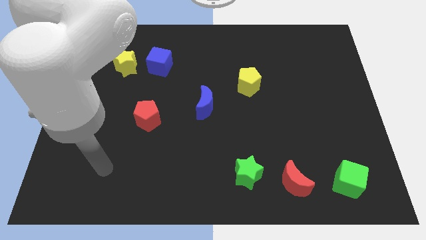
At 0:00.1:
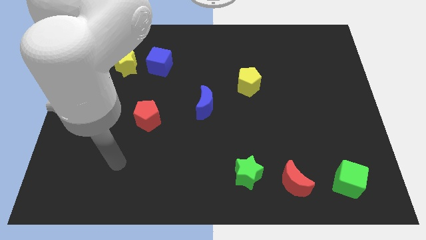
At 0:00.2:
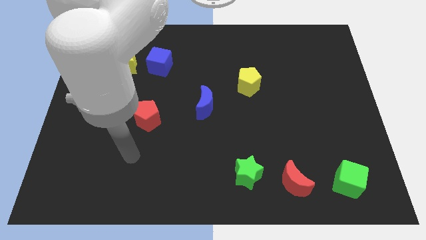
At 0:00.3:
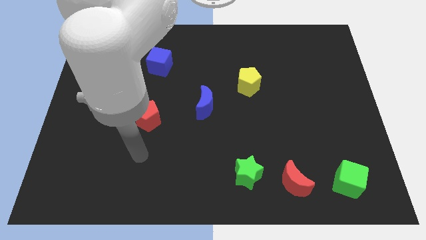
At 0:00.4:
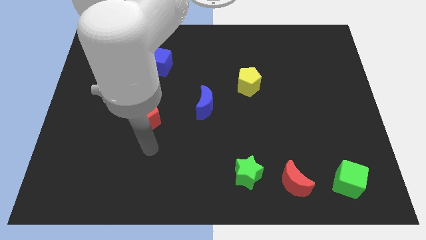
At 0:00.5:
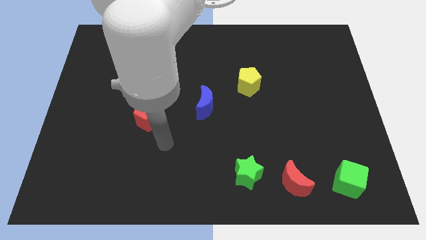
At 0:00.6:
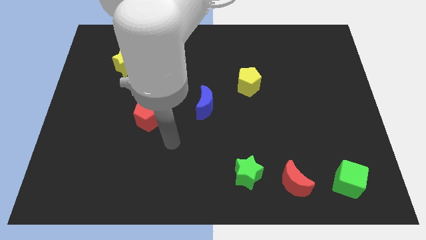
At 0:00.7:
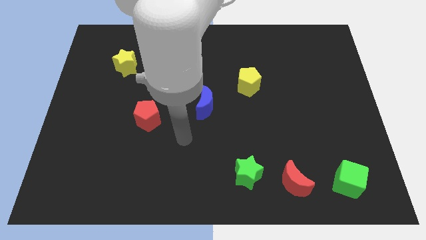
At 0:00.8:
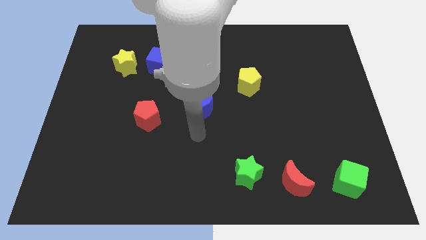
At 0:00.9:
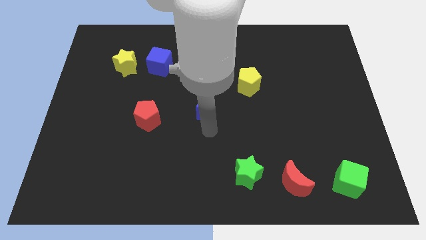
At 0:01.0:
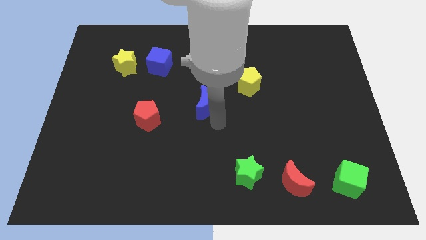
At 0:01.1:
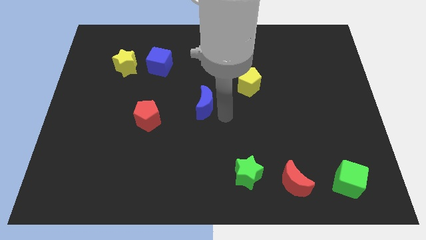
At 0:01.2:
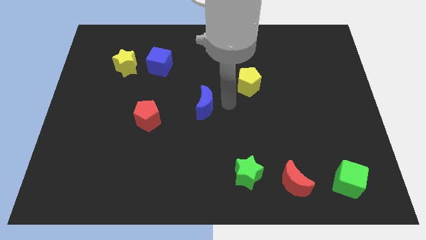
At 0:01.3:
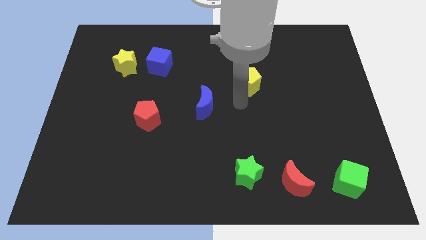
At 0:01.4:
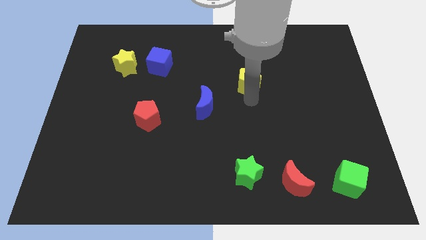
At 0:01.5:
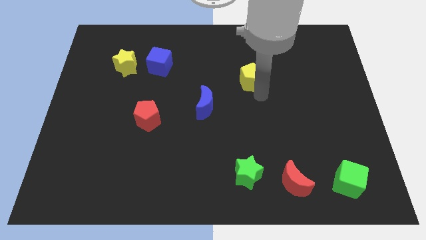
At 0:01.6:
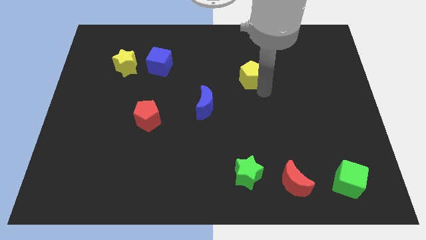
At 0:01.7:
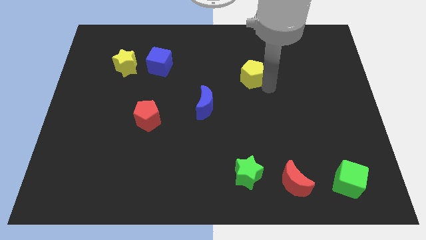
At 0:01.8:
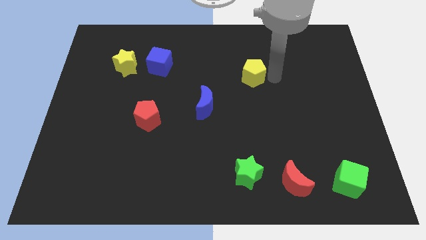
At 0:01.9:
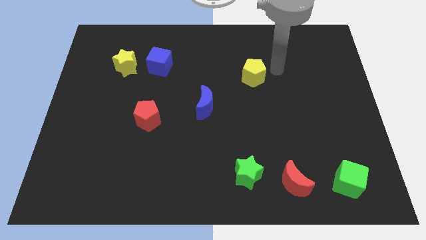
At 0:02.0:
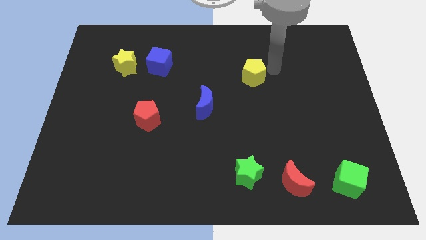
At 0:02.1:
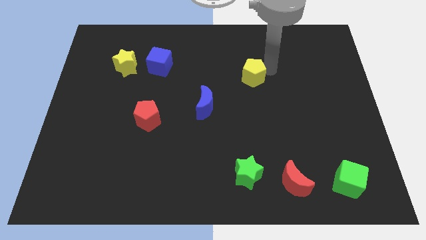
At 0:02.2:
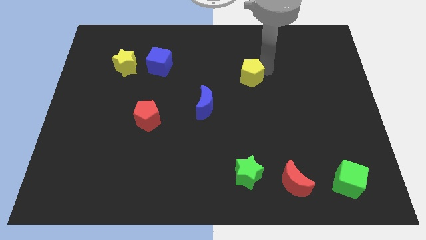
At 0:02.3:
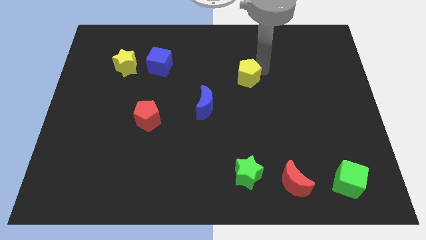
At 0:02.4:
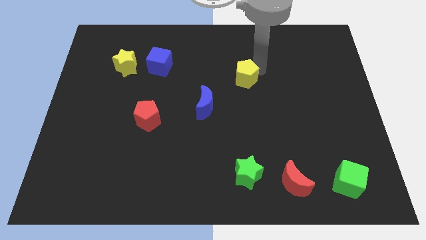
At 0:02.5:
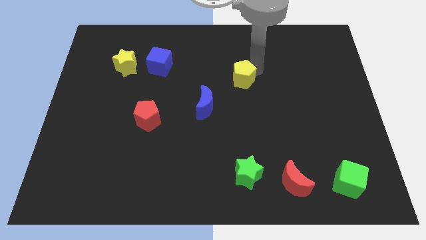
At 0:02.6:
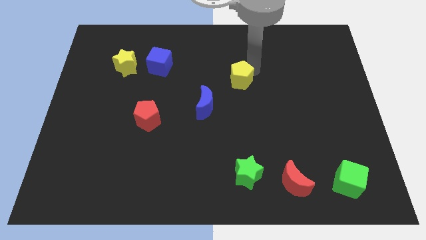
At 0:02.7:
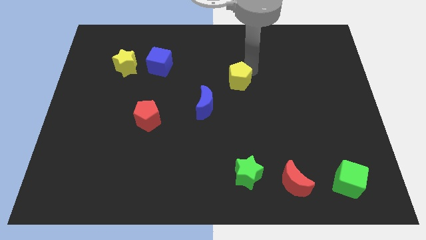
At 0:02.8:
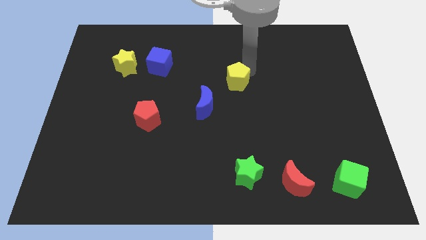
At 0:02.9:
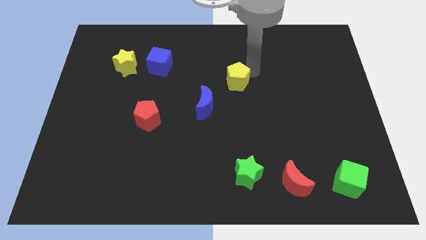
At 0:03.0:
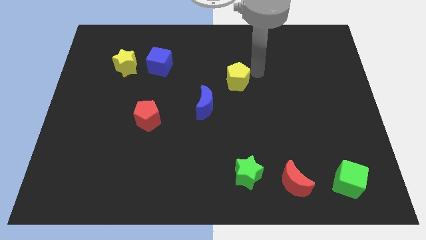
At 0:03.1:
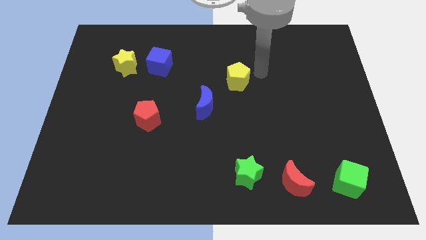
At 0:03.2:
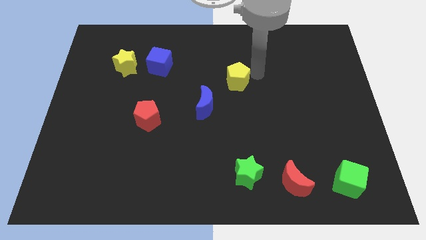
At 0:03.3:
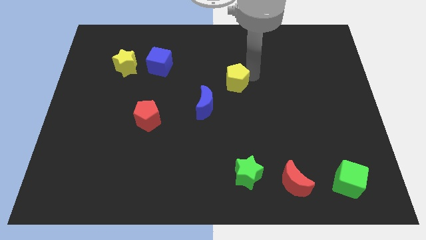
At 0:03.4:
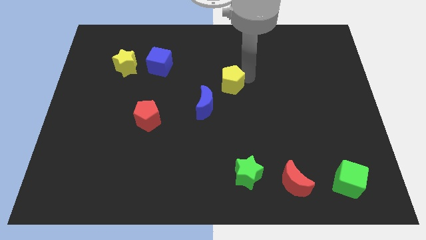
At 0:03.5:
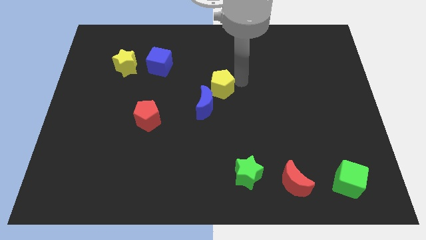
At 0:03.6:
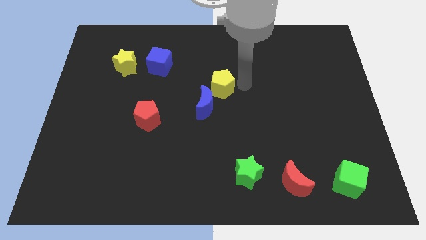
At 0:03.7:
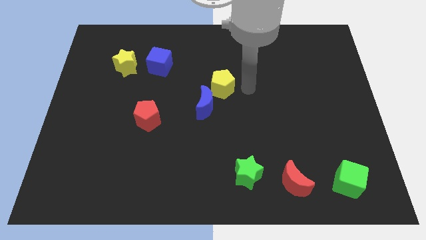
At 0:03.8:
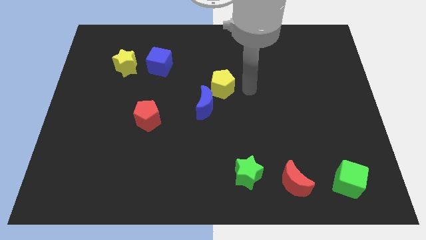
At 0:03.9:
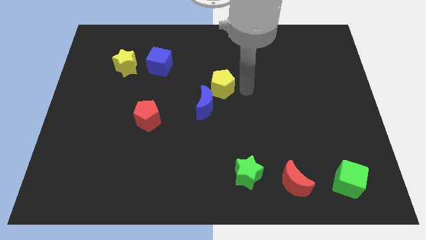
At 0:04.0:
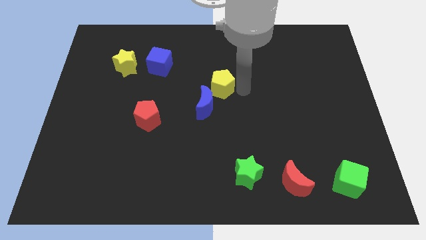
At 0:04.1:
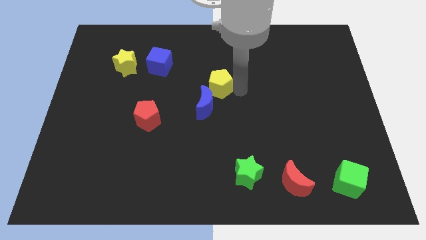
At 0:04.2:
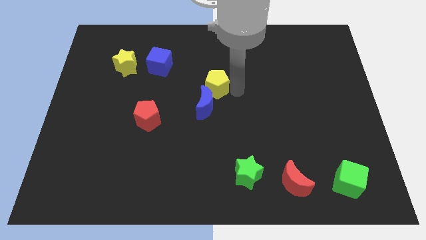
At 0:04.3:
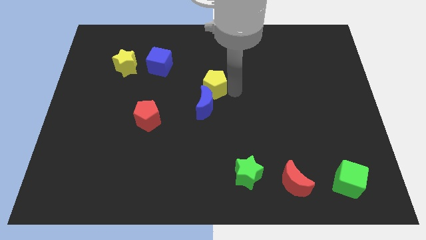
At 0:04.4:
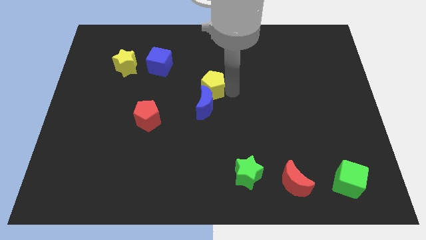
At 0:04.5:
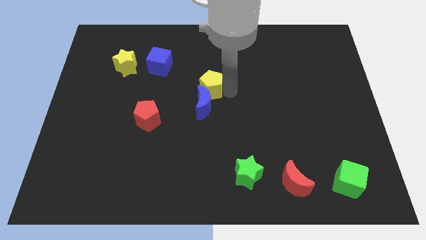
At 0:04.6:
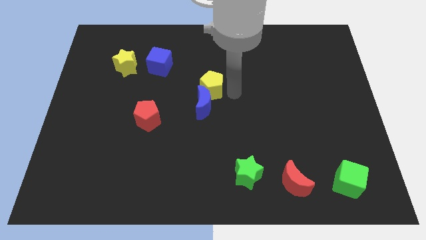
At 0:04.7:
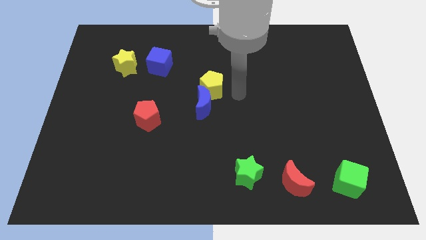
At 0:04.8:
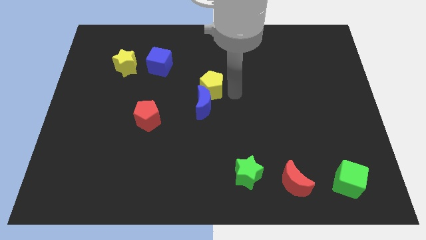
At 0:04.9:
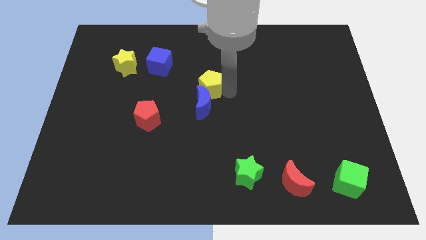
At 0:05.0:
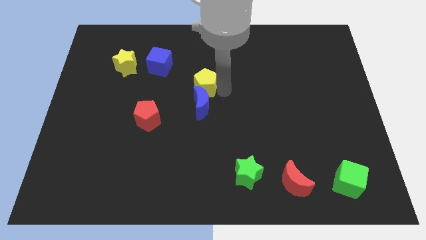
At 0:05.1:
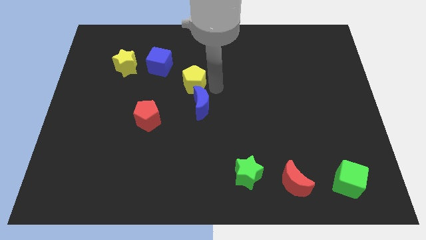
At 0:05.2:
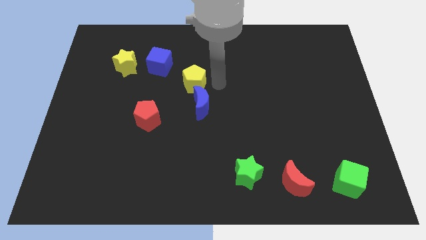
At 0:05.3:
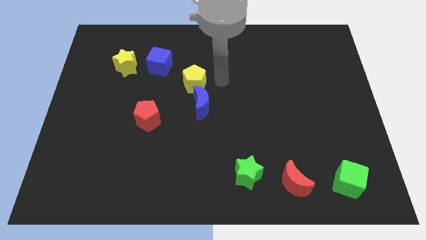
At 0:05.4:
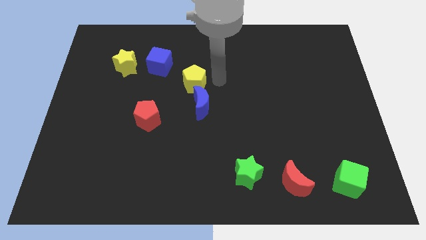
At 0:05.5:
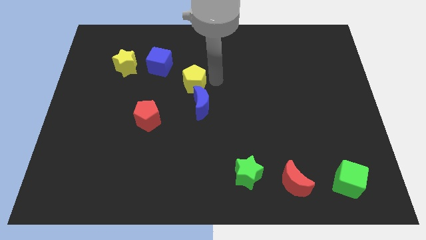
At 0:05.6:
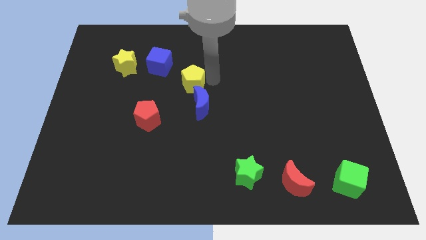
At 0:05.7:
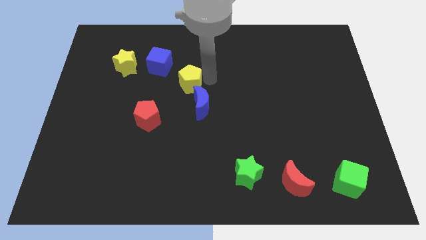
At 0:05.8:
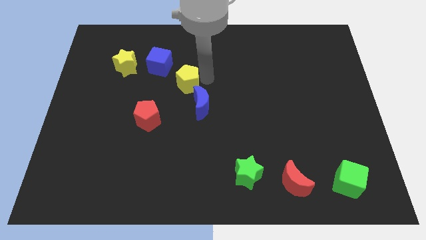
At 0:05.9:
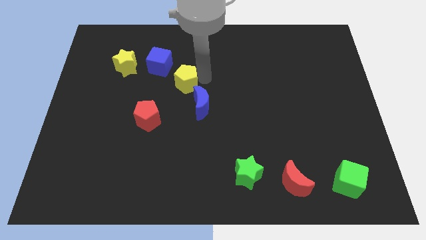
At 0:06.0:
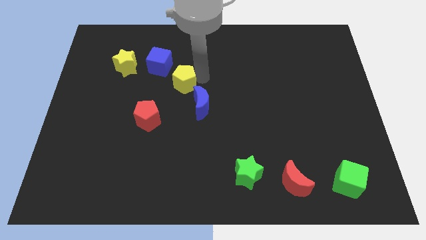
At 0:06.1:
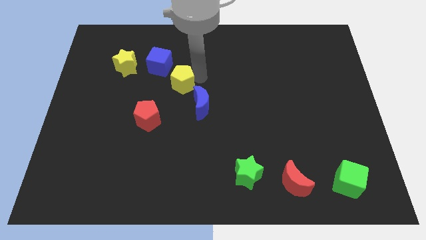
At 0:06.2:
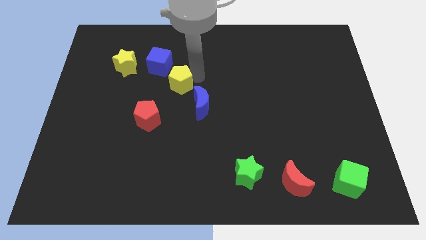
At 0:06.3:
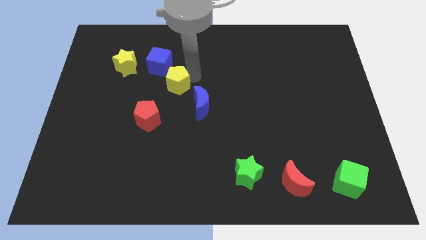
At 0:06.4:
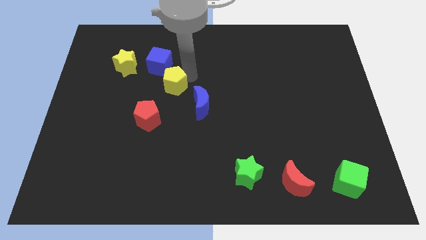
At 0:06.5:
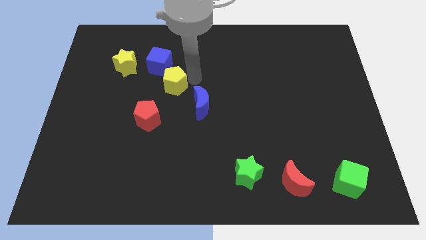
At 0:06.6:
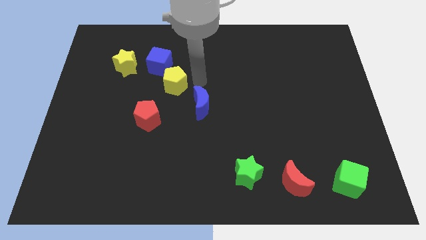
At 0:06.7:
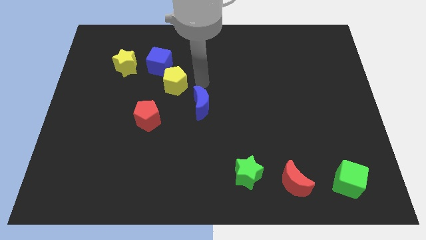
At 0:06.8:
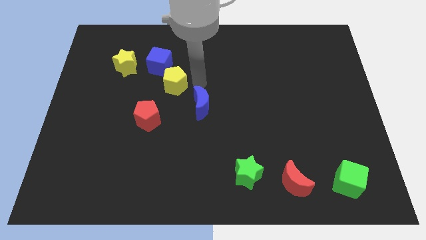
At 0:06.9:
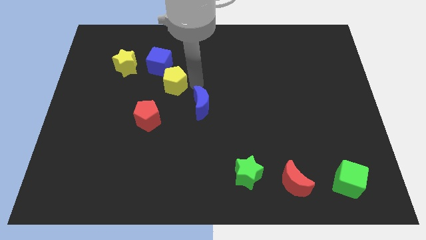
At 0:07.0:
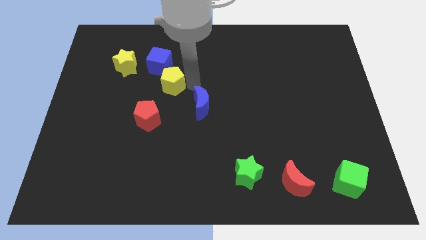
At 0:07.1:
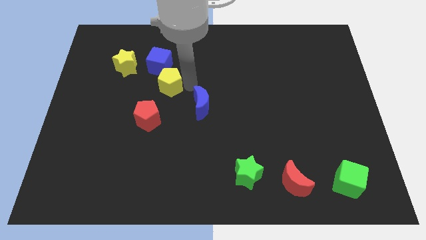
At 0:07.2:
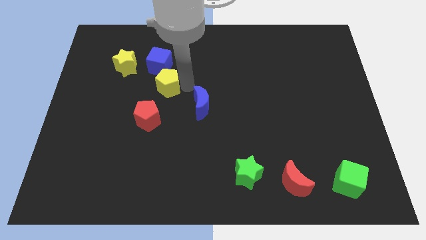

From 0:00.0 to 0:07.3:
move the yellow pentagon to the left

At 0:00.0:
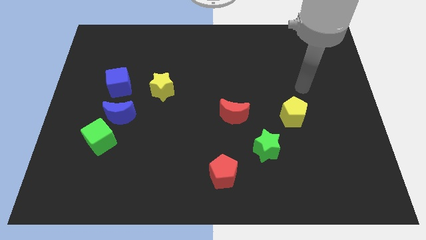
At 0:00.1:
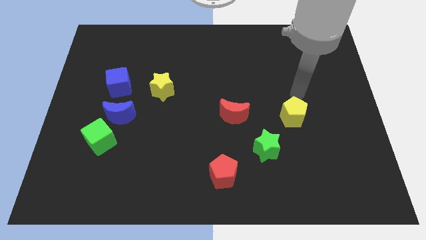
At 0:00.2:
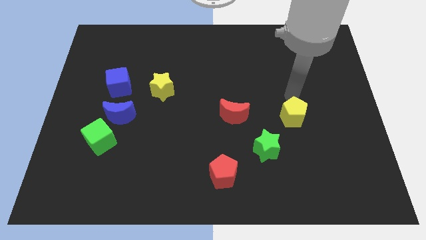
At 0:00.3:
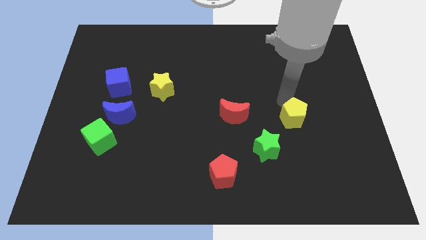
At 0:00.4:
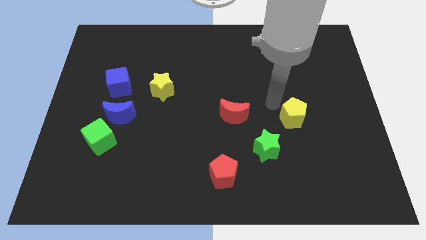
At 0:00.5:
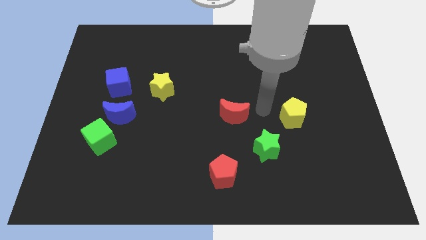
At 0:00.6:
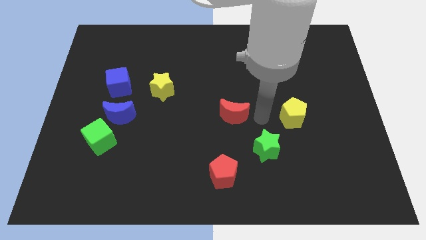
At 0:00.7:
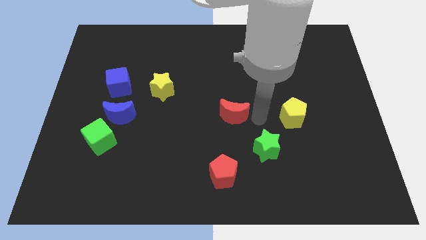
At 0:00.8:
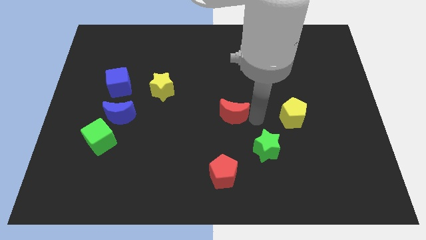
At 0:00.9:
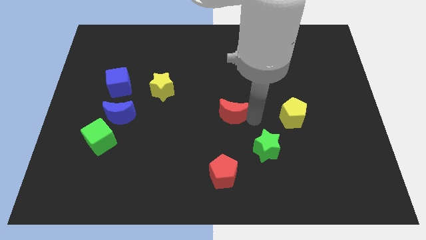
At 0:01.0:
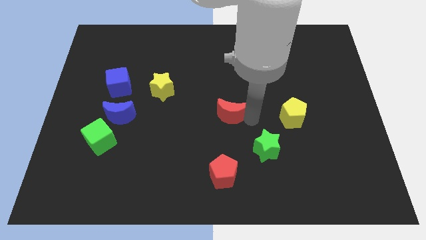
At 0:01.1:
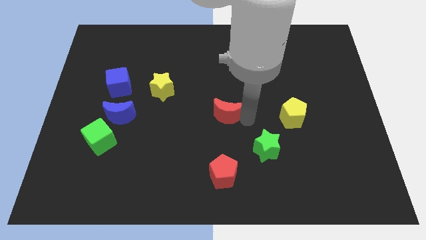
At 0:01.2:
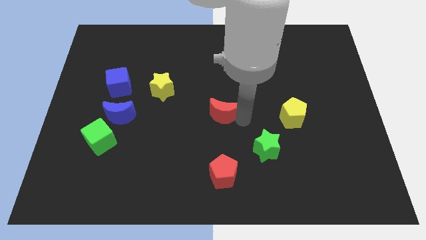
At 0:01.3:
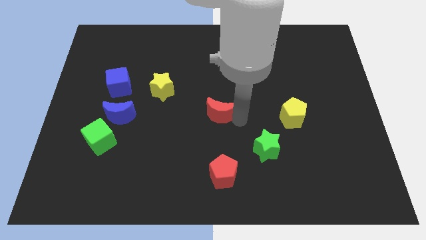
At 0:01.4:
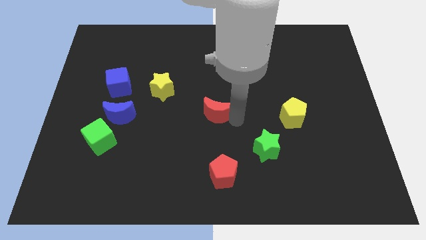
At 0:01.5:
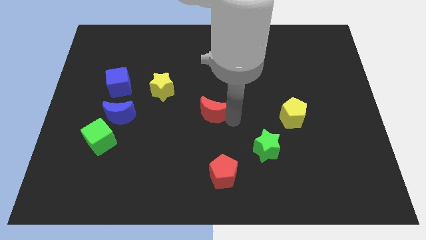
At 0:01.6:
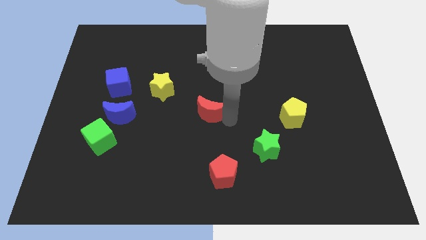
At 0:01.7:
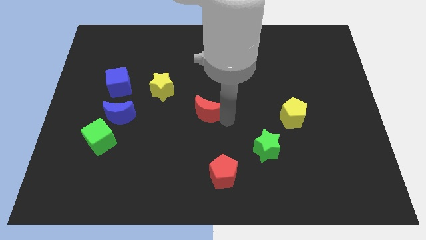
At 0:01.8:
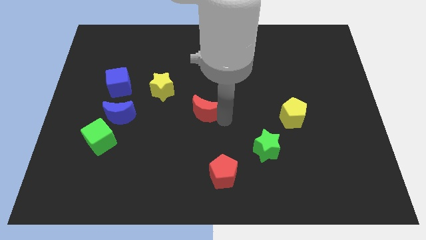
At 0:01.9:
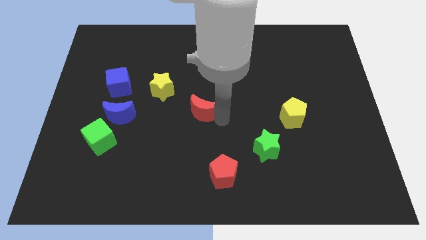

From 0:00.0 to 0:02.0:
slide the red moon left slightly
